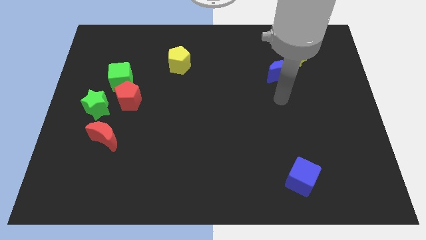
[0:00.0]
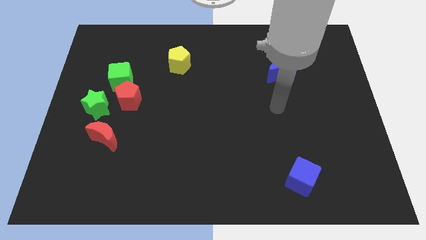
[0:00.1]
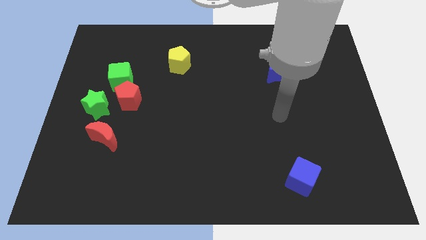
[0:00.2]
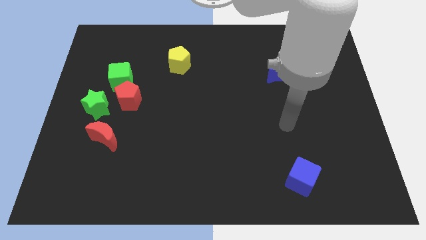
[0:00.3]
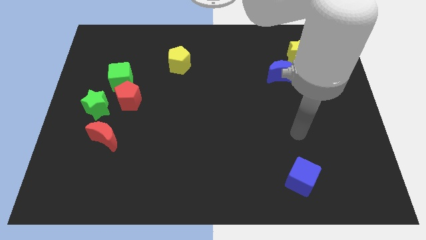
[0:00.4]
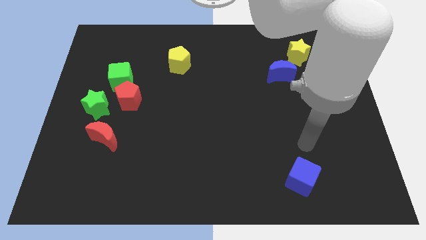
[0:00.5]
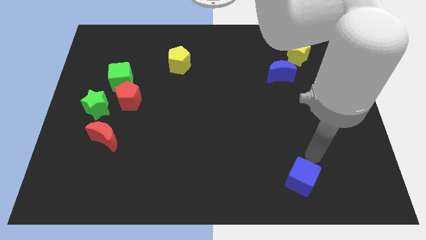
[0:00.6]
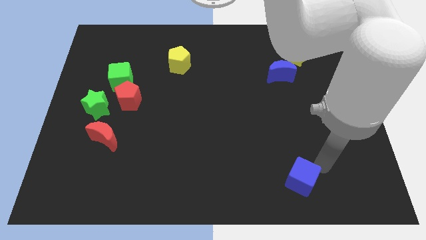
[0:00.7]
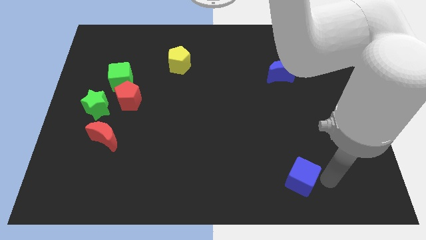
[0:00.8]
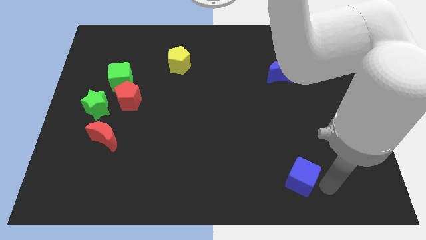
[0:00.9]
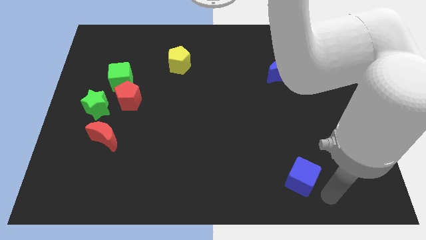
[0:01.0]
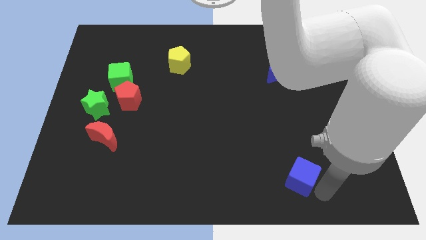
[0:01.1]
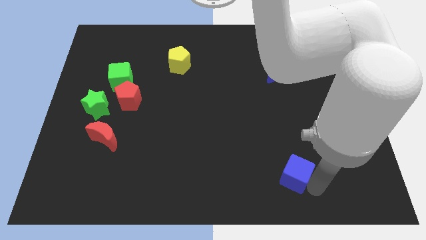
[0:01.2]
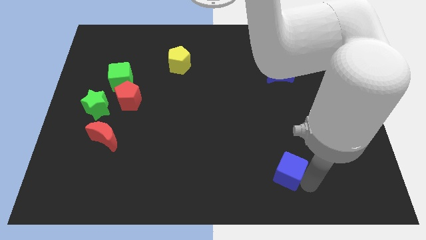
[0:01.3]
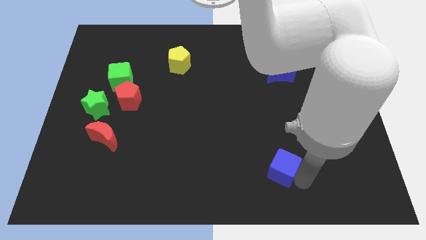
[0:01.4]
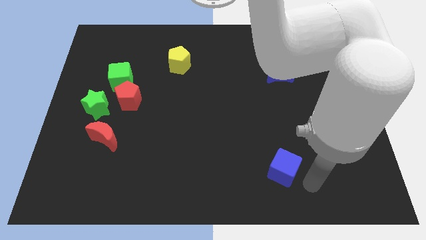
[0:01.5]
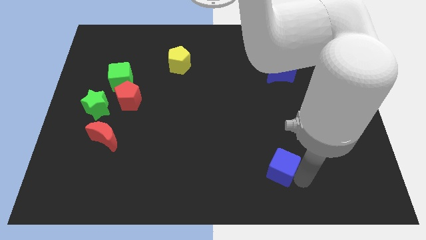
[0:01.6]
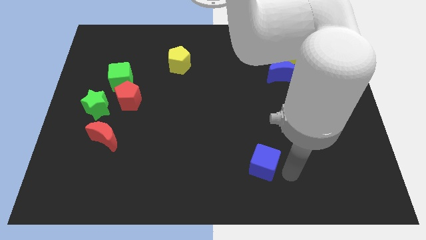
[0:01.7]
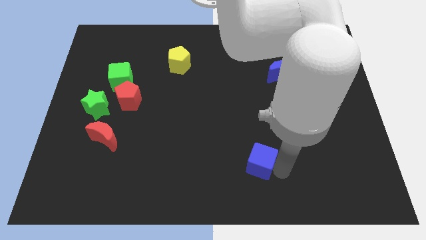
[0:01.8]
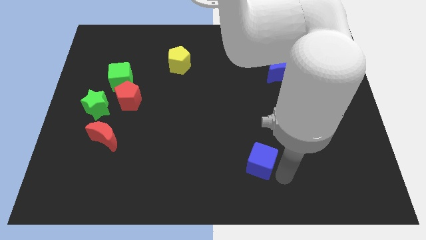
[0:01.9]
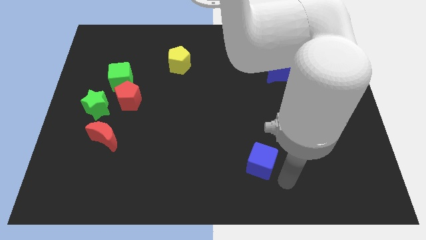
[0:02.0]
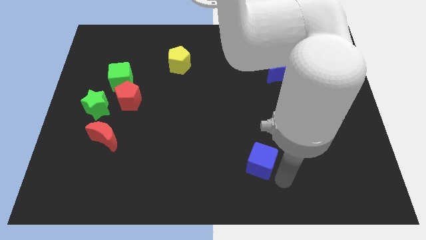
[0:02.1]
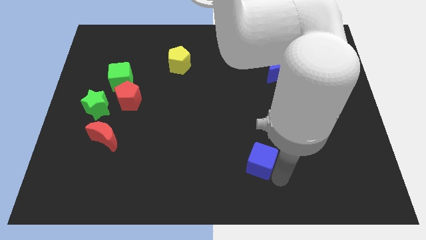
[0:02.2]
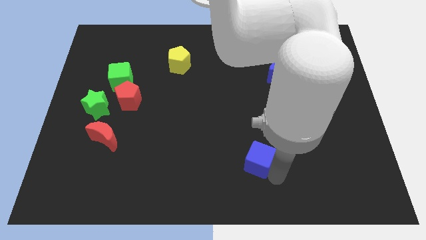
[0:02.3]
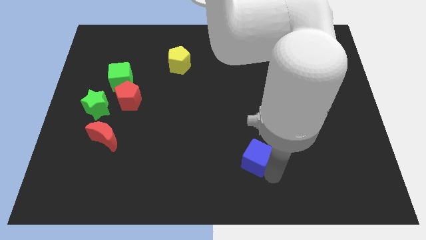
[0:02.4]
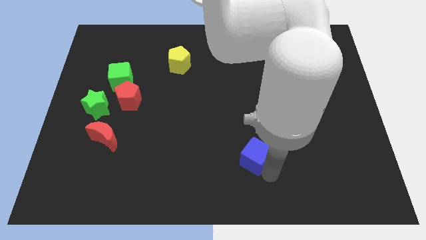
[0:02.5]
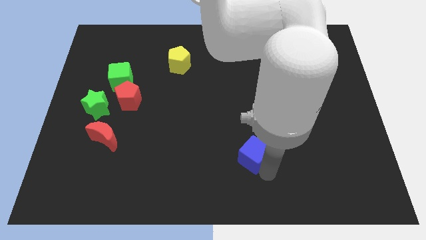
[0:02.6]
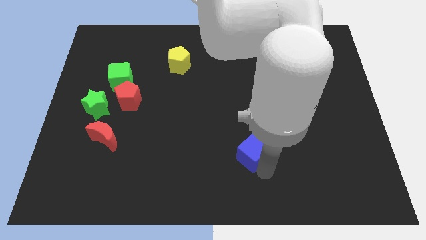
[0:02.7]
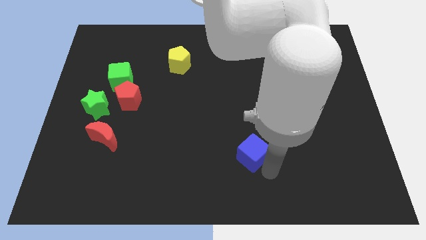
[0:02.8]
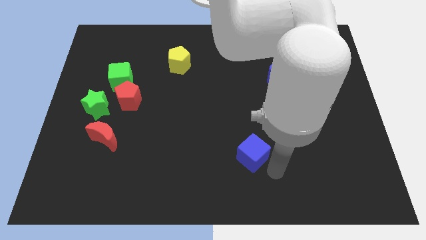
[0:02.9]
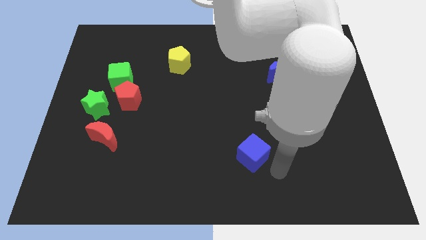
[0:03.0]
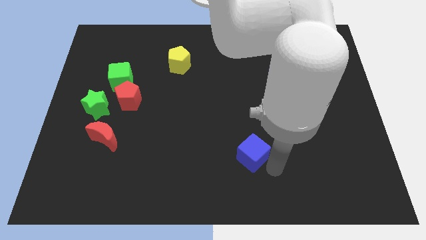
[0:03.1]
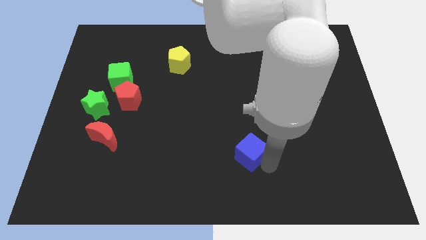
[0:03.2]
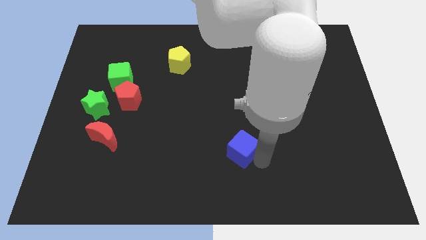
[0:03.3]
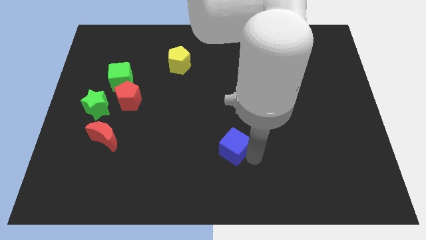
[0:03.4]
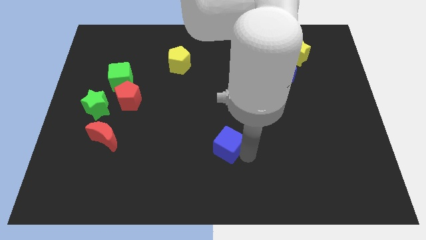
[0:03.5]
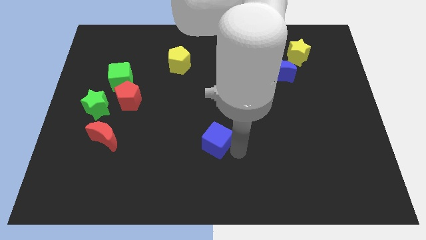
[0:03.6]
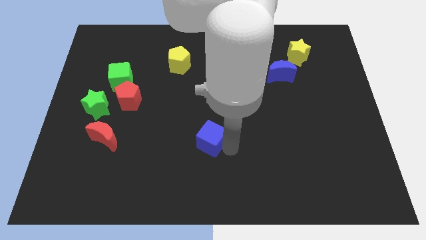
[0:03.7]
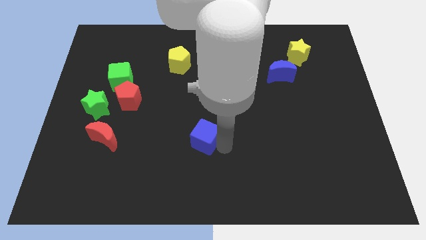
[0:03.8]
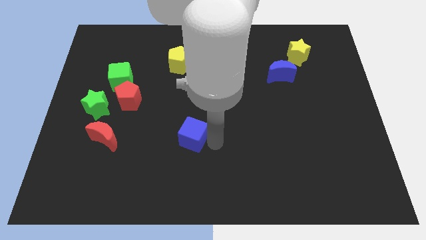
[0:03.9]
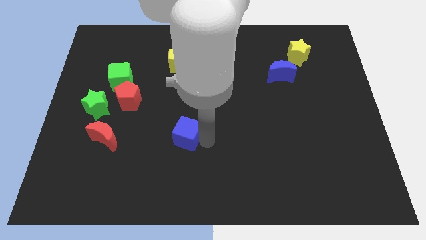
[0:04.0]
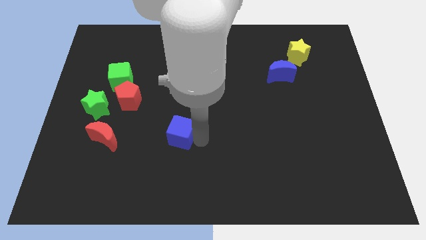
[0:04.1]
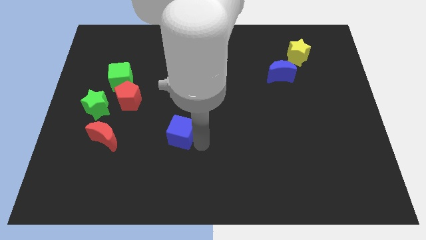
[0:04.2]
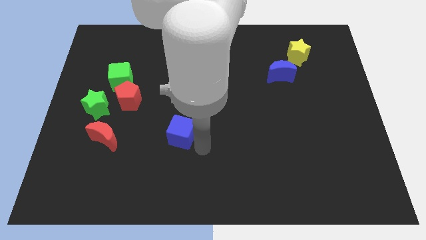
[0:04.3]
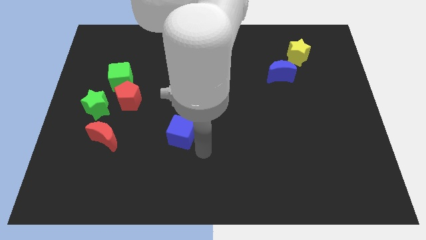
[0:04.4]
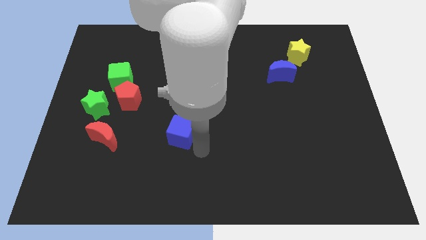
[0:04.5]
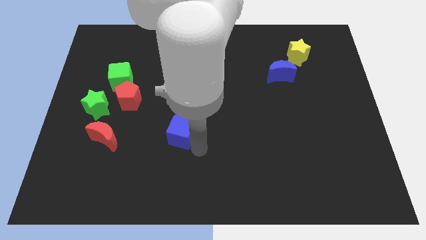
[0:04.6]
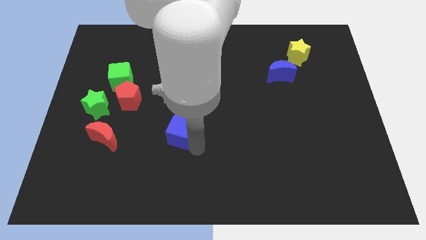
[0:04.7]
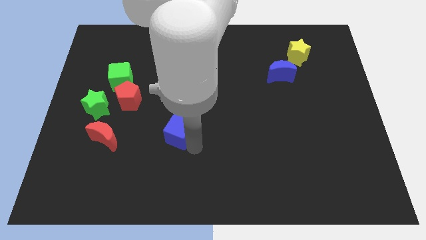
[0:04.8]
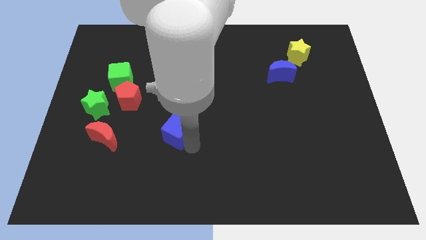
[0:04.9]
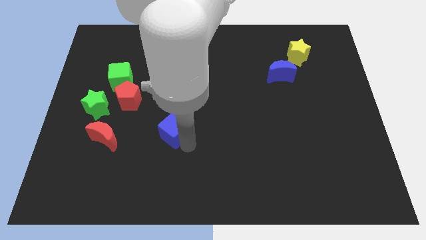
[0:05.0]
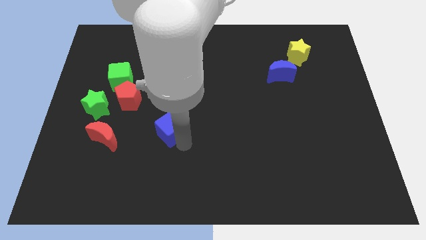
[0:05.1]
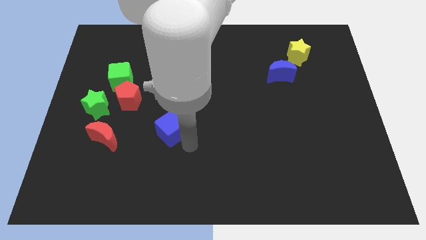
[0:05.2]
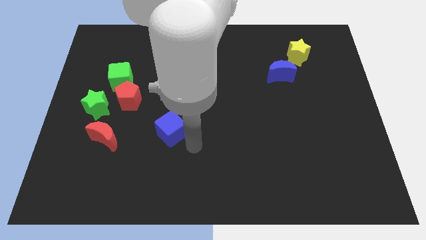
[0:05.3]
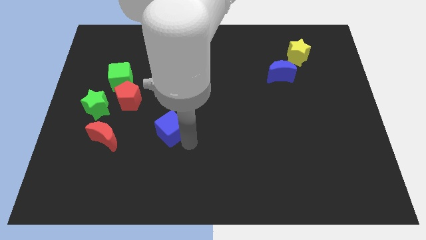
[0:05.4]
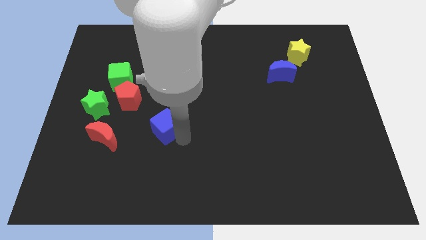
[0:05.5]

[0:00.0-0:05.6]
push the blue cube to the bottom right side of the red pentagon

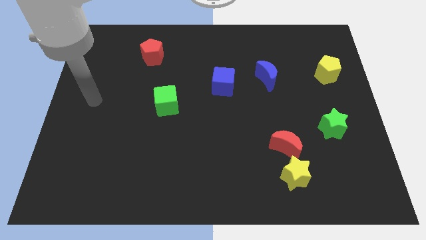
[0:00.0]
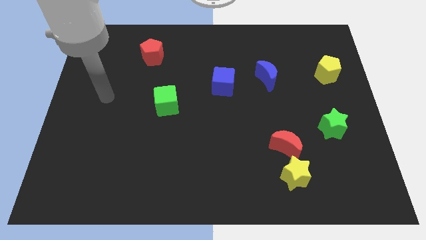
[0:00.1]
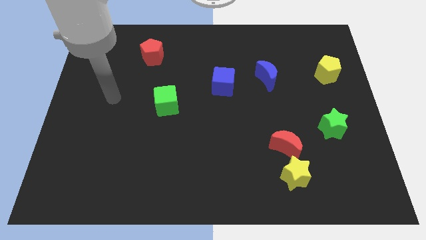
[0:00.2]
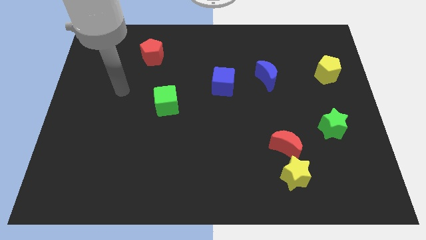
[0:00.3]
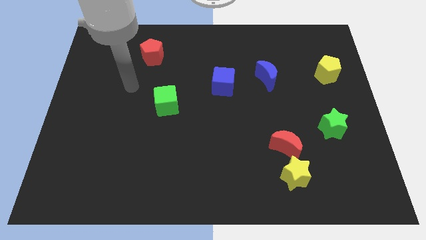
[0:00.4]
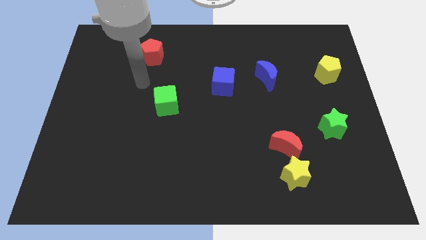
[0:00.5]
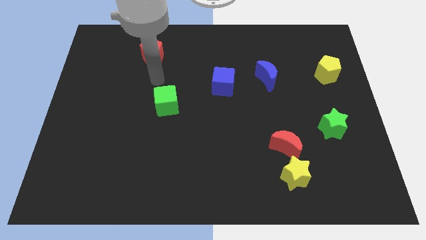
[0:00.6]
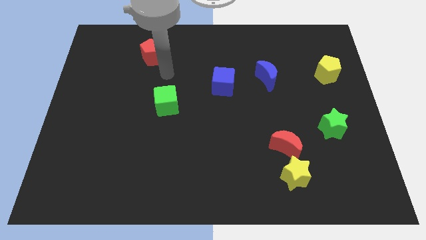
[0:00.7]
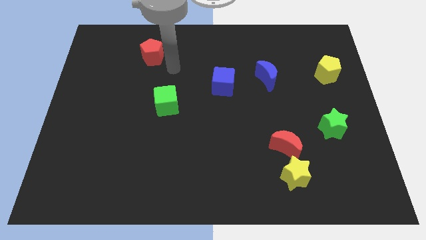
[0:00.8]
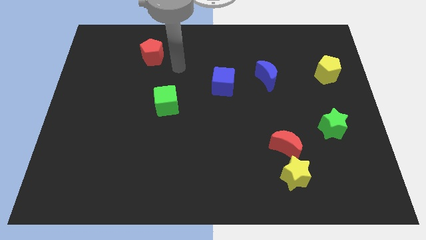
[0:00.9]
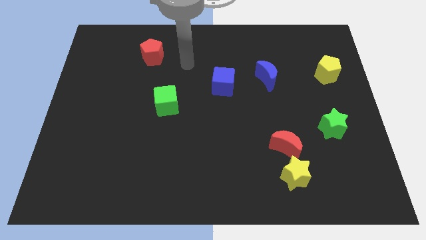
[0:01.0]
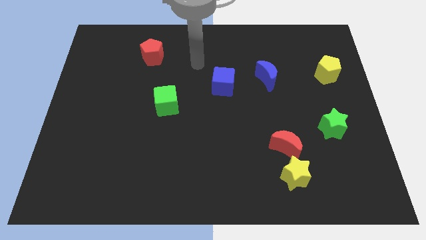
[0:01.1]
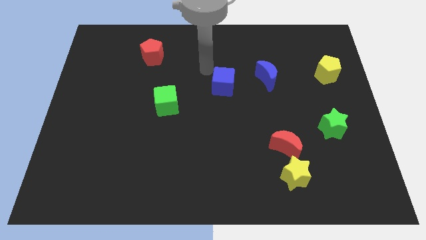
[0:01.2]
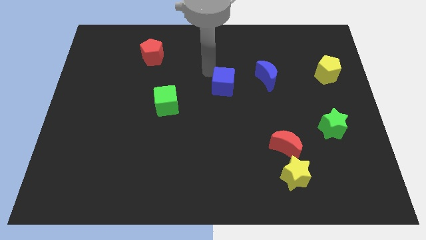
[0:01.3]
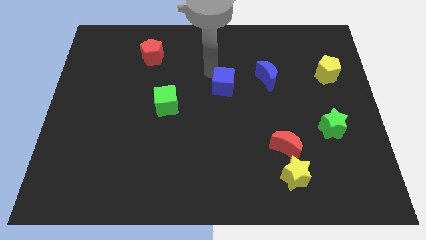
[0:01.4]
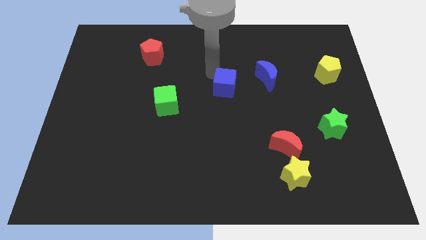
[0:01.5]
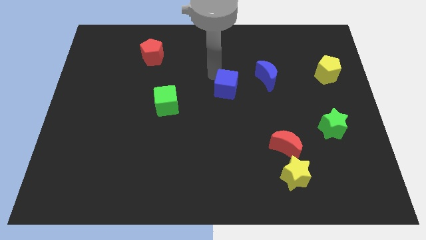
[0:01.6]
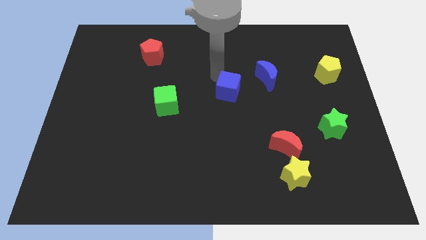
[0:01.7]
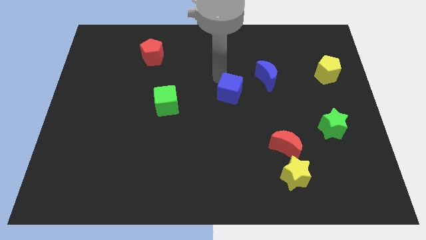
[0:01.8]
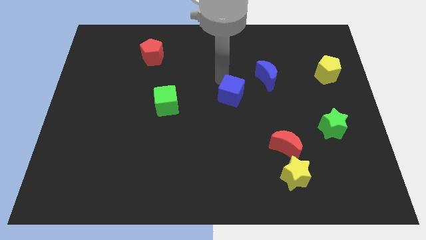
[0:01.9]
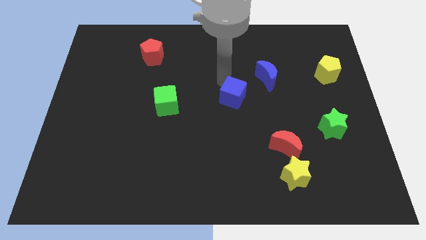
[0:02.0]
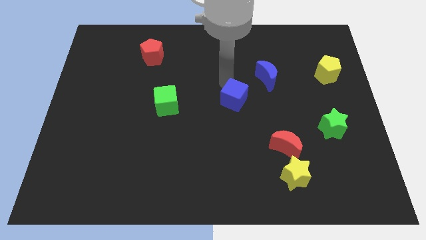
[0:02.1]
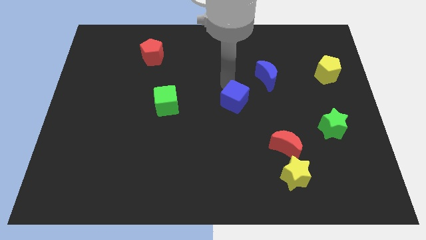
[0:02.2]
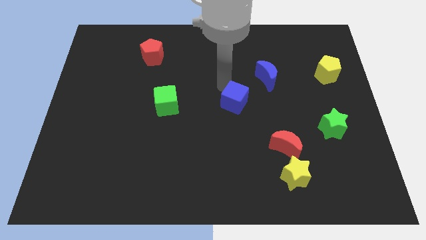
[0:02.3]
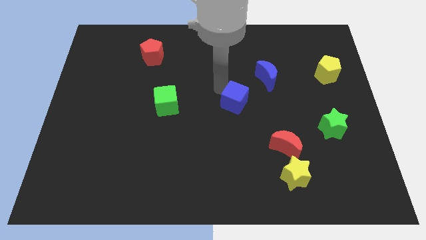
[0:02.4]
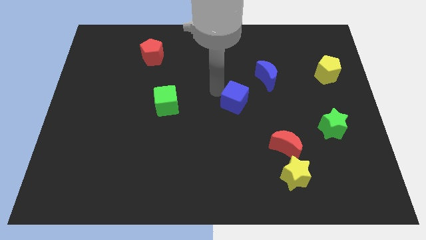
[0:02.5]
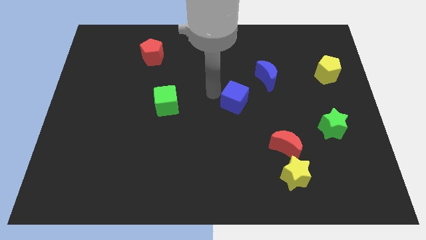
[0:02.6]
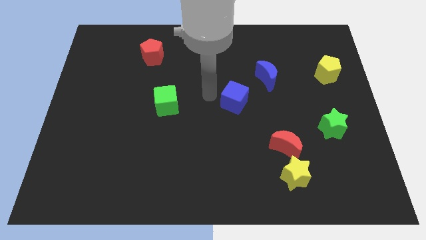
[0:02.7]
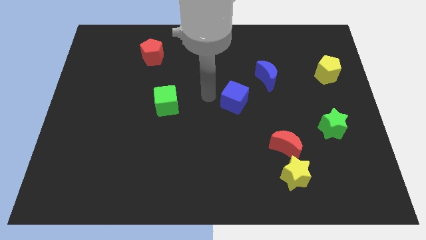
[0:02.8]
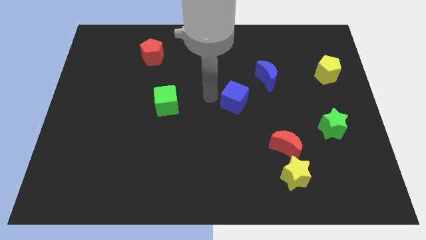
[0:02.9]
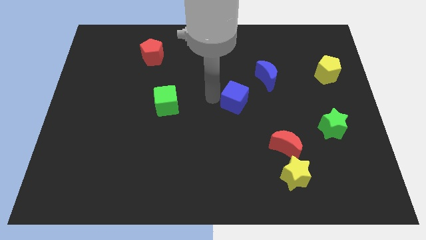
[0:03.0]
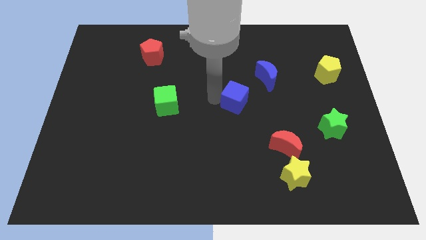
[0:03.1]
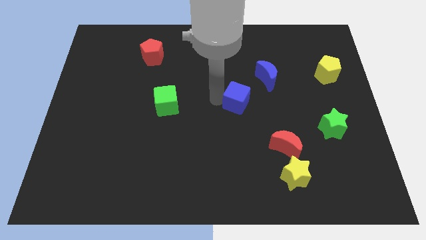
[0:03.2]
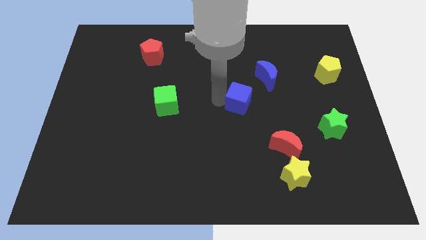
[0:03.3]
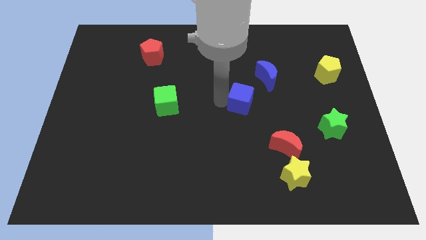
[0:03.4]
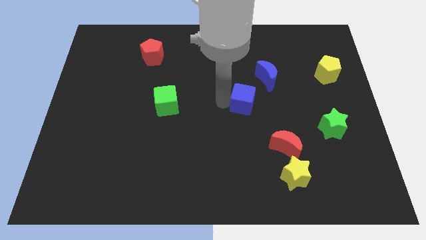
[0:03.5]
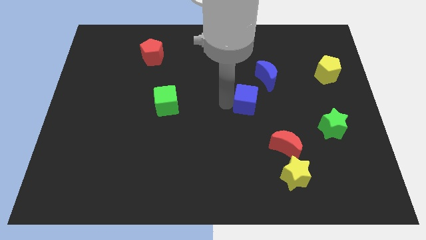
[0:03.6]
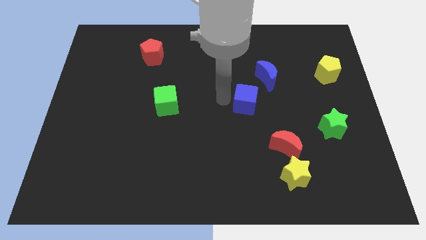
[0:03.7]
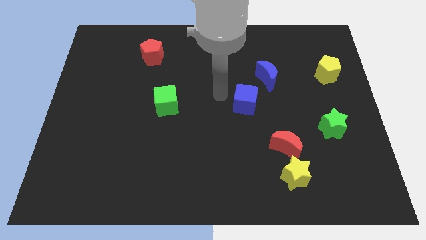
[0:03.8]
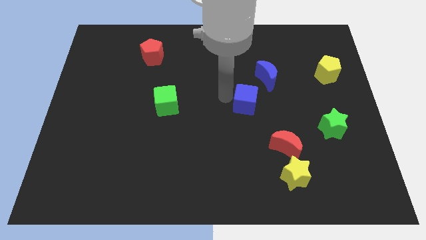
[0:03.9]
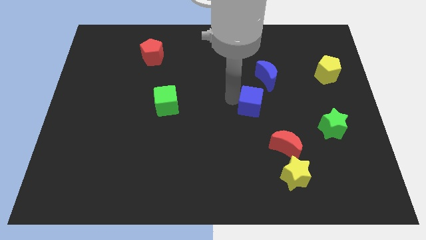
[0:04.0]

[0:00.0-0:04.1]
put the blue cube to the bottom side of the blue moon
